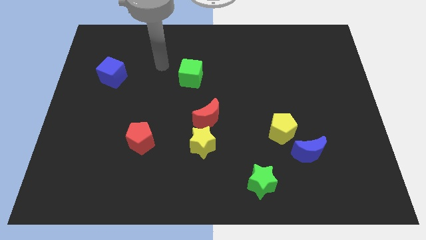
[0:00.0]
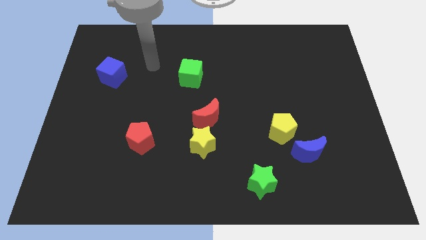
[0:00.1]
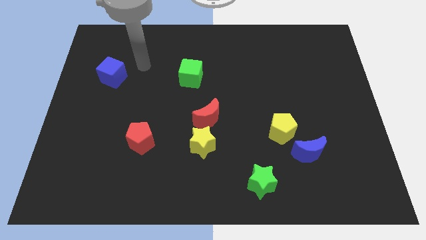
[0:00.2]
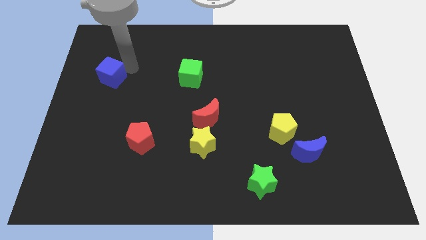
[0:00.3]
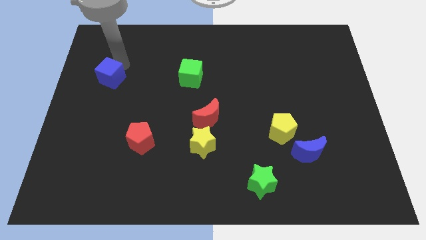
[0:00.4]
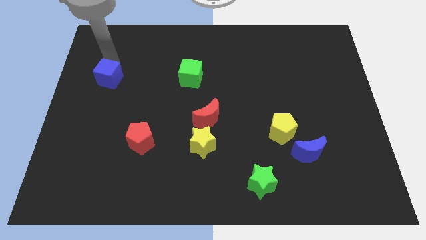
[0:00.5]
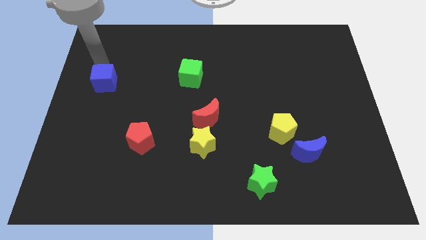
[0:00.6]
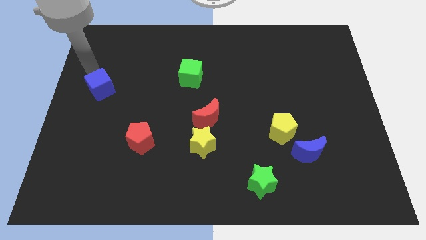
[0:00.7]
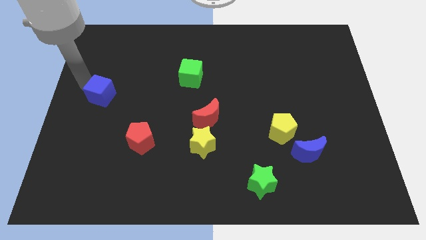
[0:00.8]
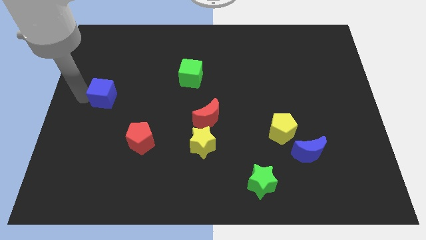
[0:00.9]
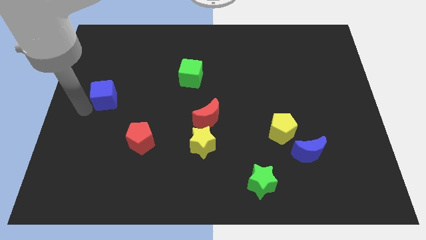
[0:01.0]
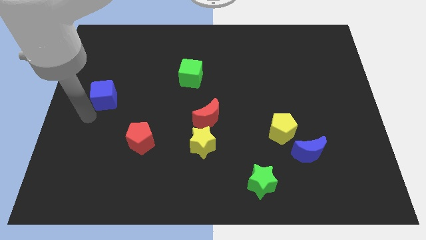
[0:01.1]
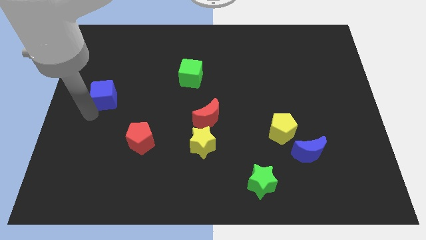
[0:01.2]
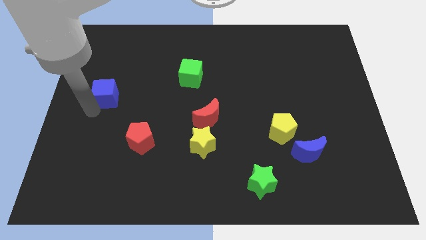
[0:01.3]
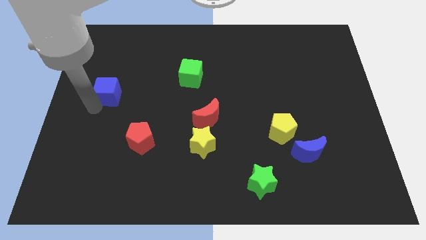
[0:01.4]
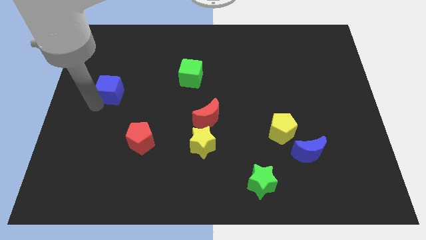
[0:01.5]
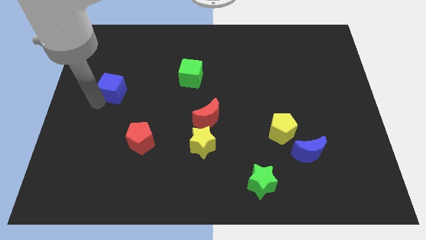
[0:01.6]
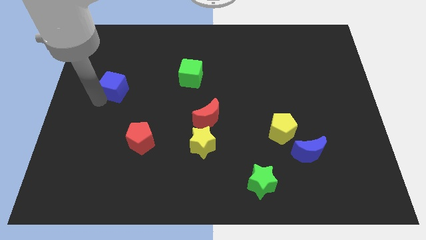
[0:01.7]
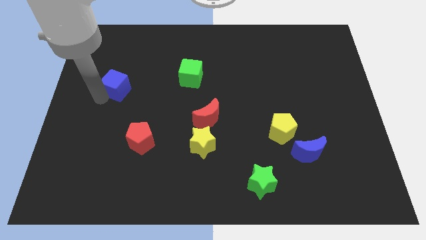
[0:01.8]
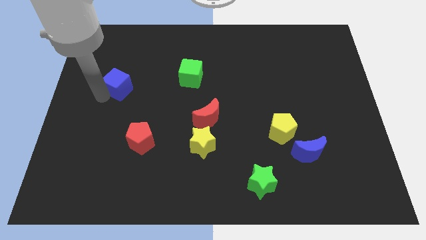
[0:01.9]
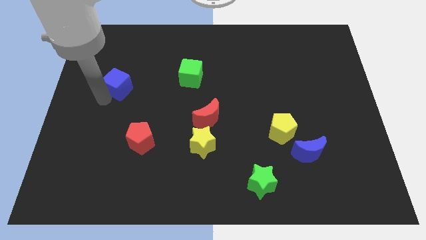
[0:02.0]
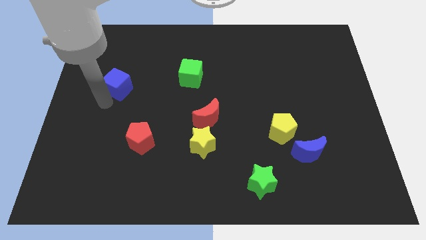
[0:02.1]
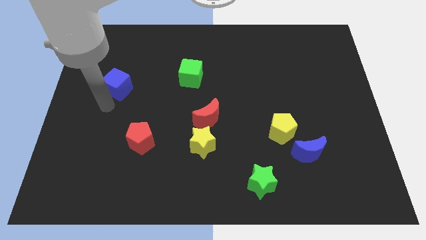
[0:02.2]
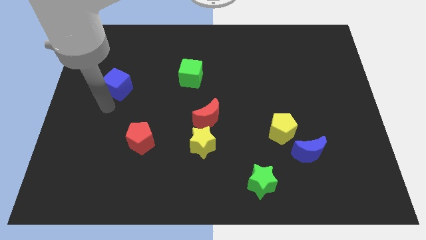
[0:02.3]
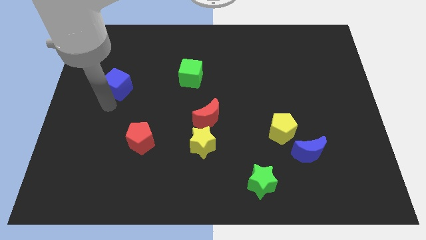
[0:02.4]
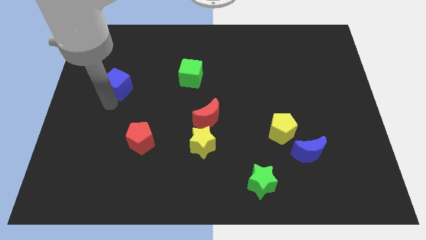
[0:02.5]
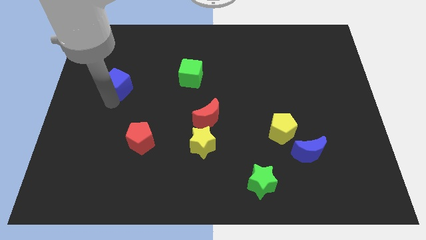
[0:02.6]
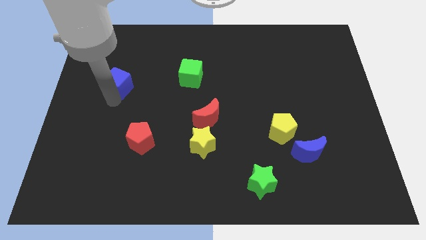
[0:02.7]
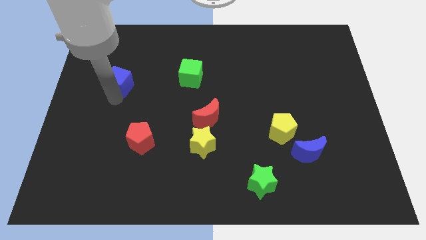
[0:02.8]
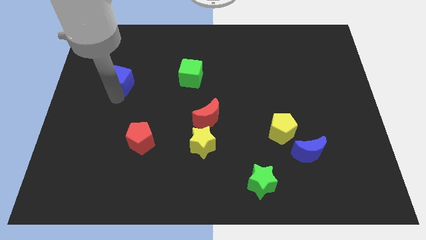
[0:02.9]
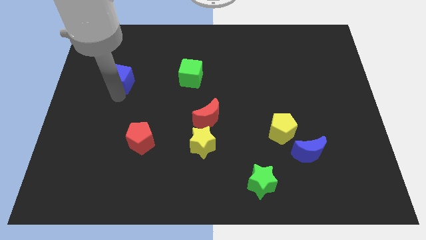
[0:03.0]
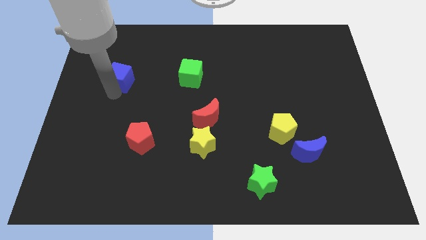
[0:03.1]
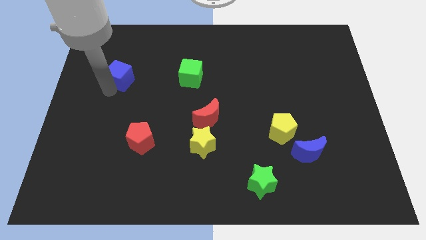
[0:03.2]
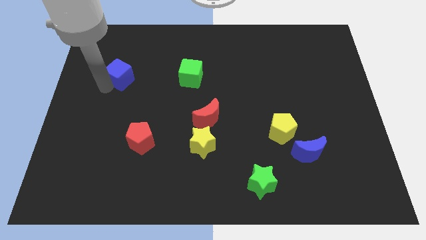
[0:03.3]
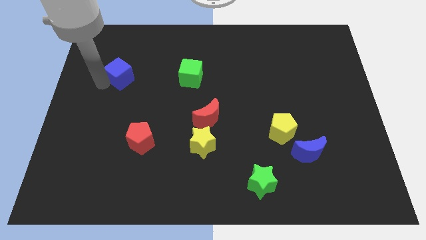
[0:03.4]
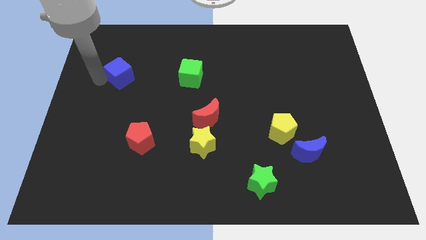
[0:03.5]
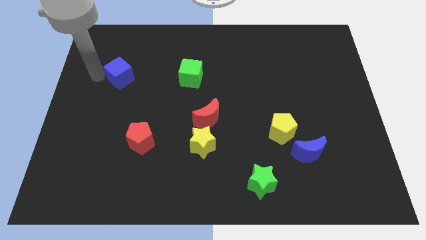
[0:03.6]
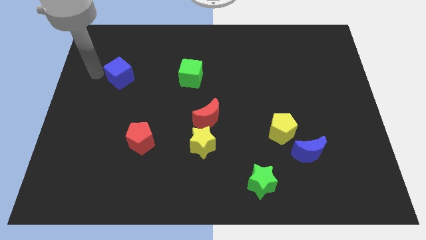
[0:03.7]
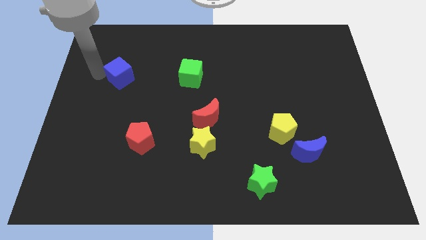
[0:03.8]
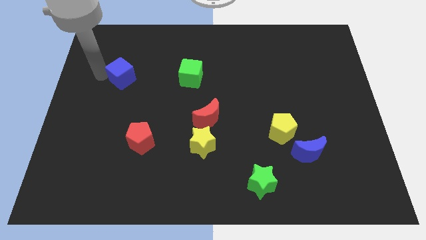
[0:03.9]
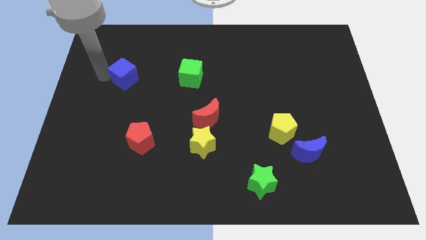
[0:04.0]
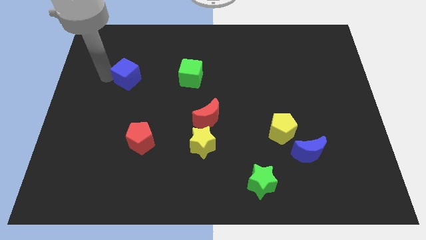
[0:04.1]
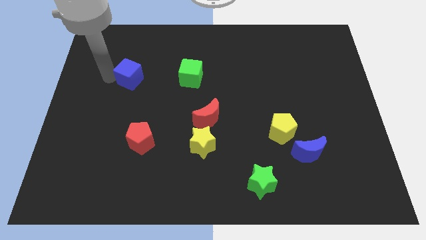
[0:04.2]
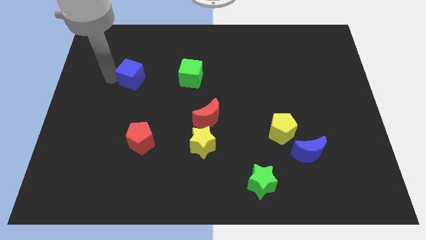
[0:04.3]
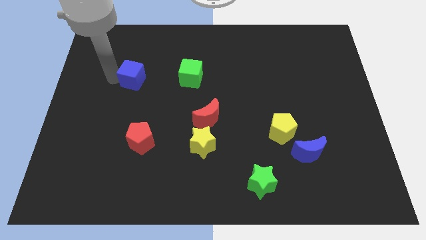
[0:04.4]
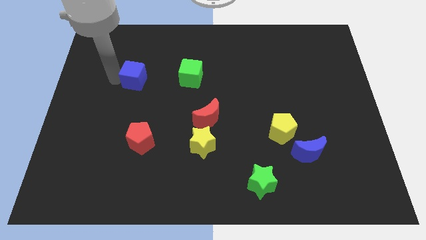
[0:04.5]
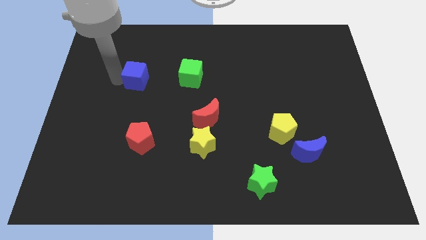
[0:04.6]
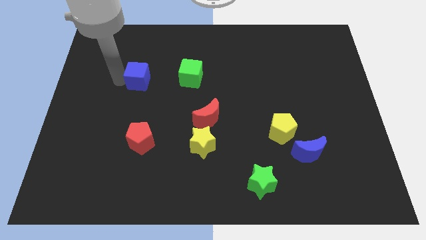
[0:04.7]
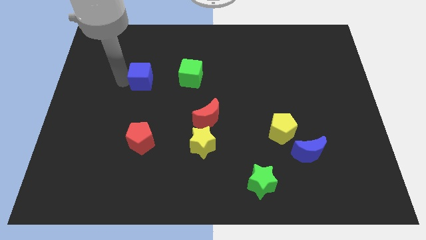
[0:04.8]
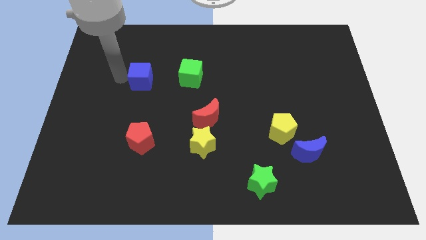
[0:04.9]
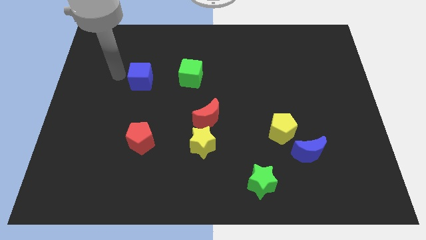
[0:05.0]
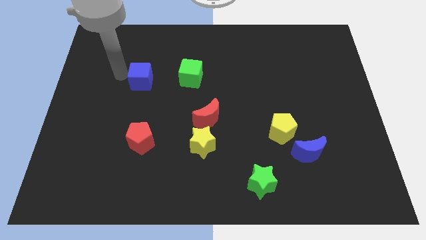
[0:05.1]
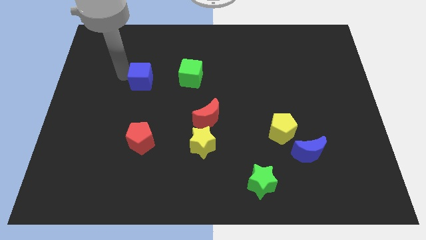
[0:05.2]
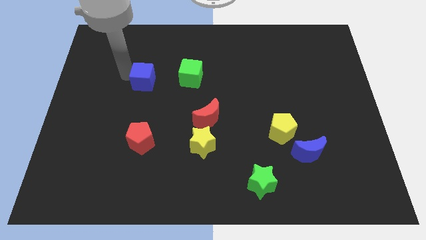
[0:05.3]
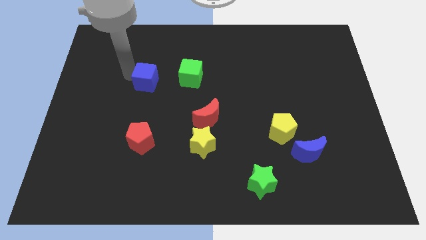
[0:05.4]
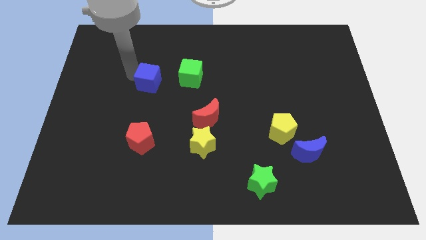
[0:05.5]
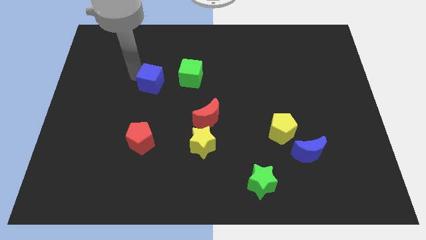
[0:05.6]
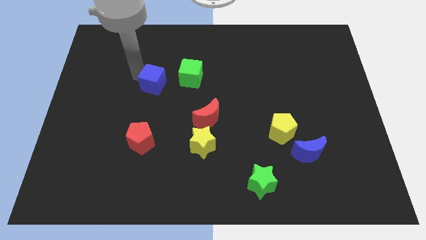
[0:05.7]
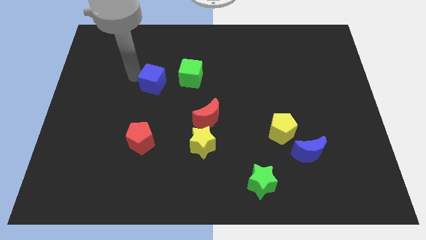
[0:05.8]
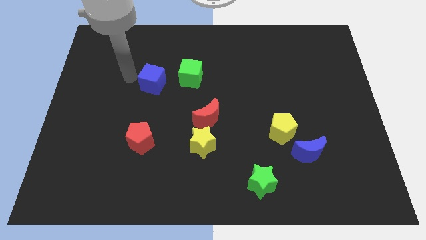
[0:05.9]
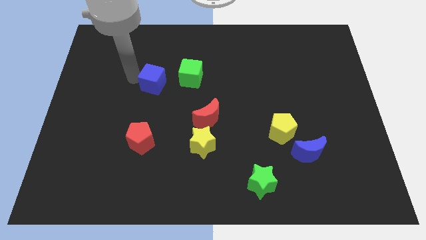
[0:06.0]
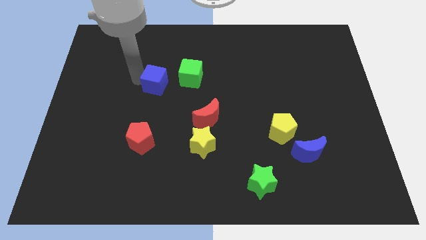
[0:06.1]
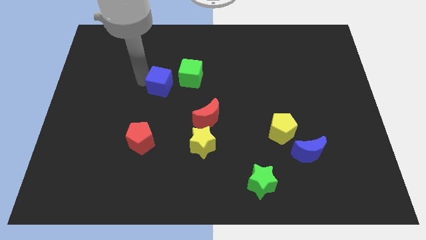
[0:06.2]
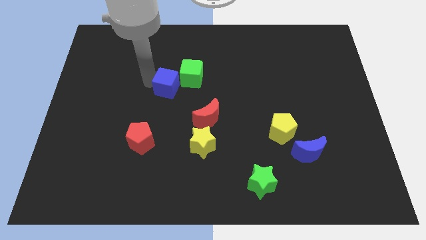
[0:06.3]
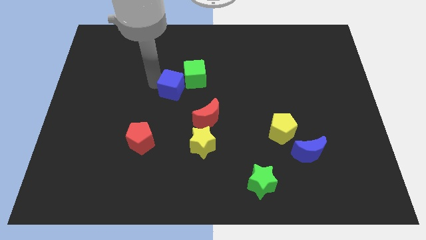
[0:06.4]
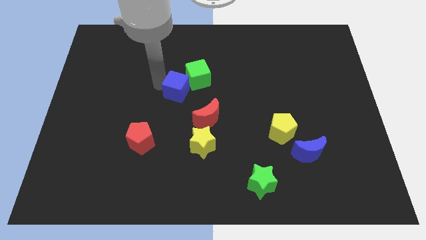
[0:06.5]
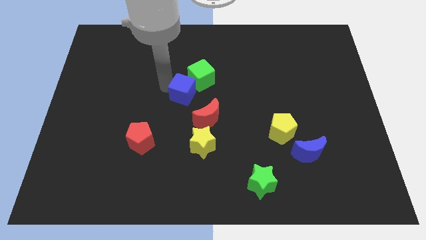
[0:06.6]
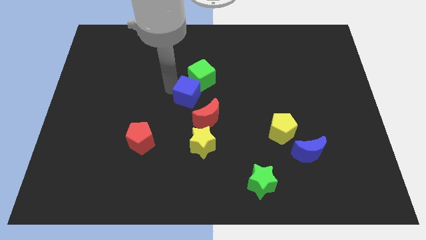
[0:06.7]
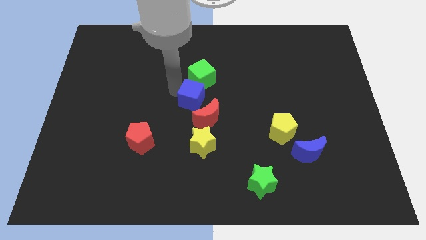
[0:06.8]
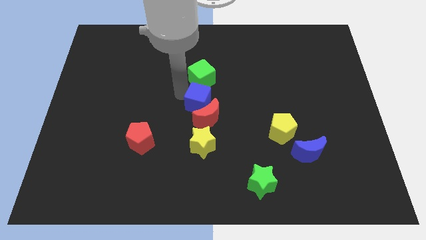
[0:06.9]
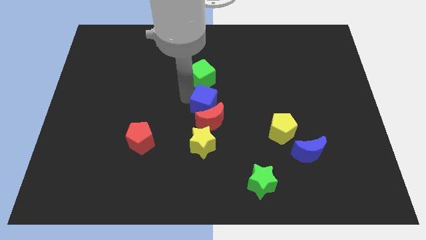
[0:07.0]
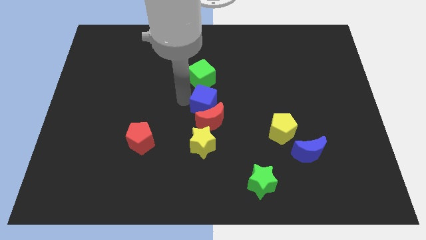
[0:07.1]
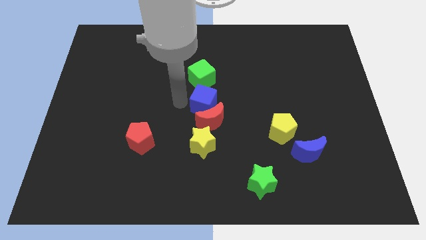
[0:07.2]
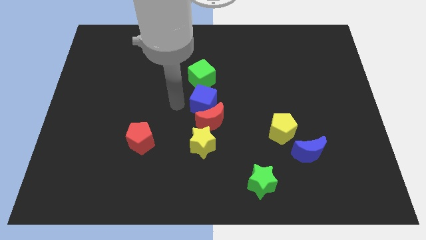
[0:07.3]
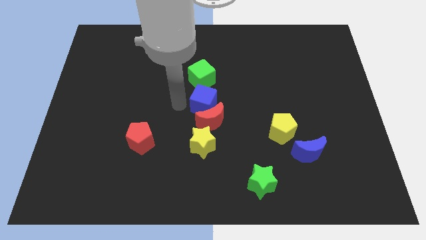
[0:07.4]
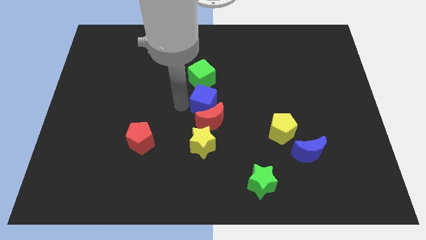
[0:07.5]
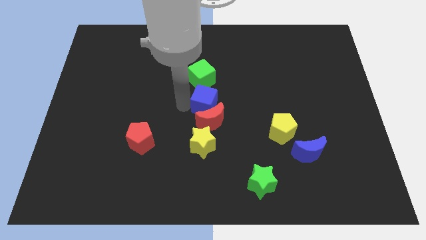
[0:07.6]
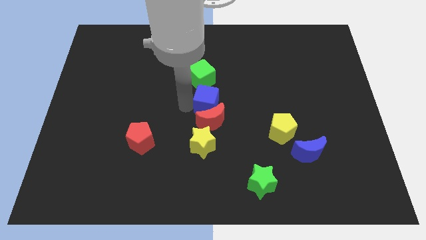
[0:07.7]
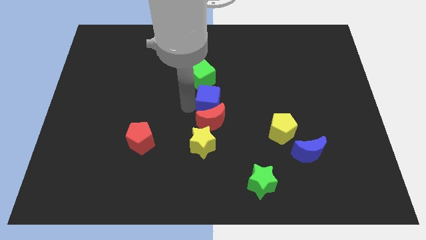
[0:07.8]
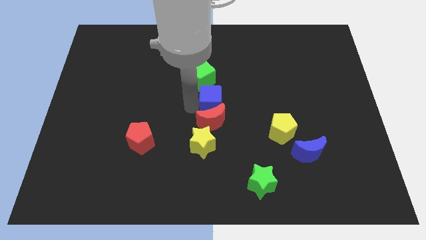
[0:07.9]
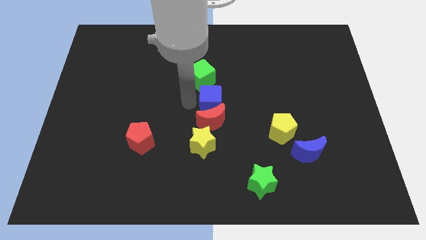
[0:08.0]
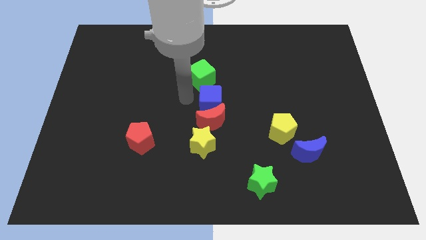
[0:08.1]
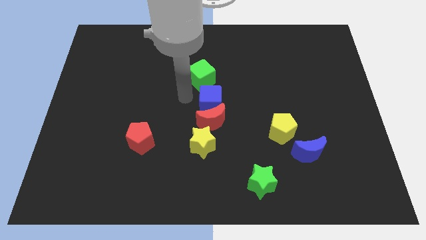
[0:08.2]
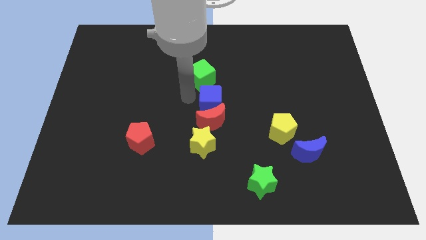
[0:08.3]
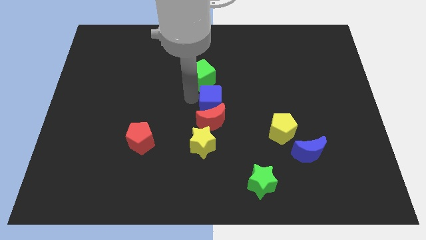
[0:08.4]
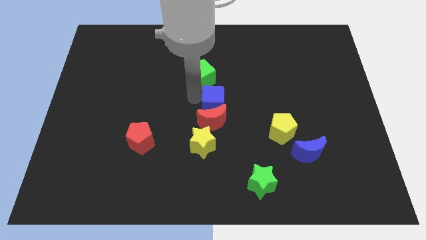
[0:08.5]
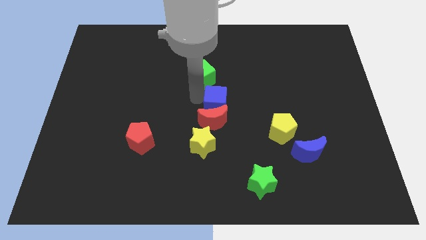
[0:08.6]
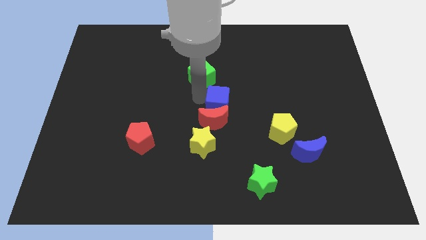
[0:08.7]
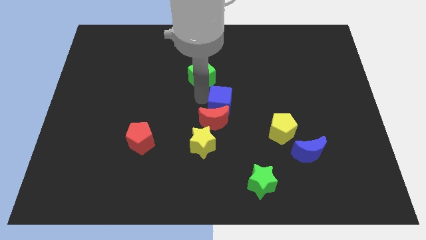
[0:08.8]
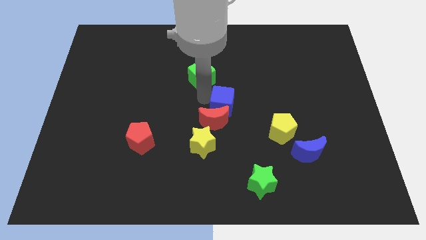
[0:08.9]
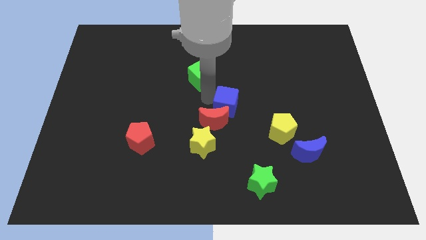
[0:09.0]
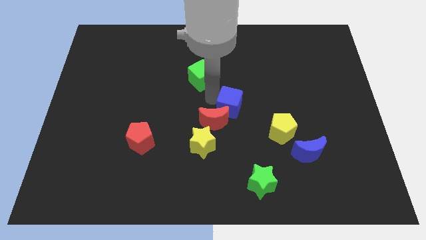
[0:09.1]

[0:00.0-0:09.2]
push the blue cube to the right of the red moon
